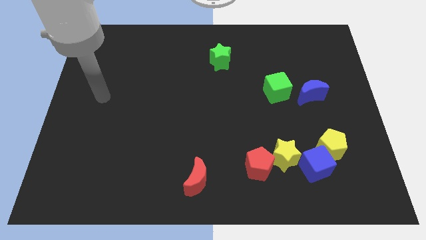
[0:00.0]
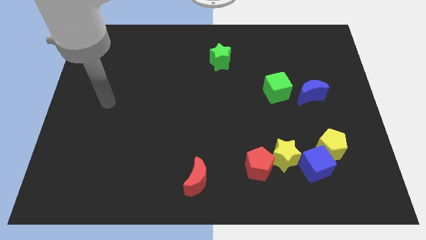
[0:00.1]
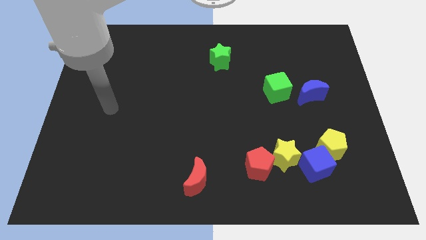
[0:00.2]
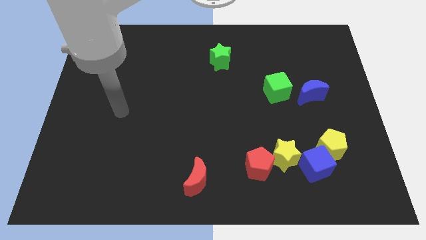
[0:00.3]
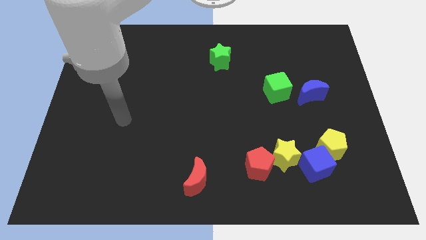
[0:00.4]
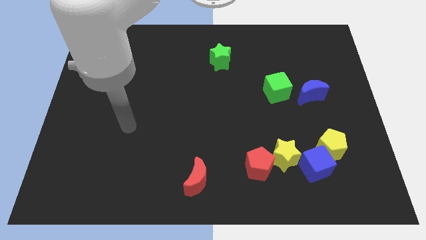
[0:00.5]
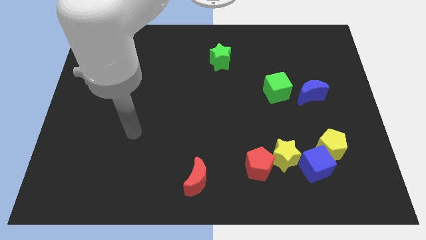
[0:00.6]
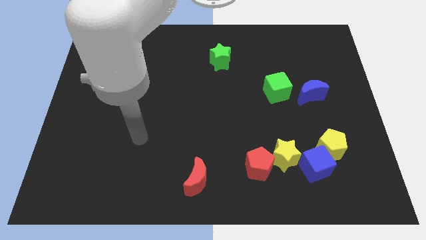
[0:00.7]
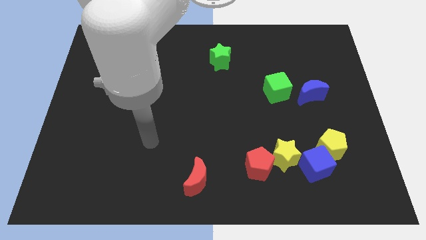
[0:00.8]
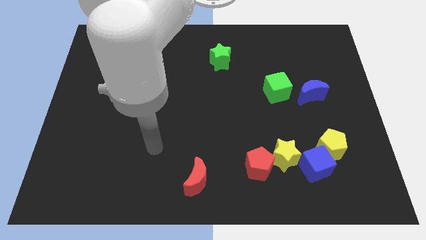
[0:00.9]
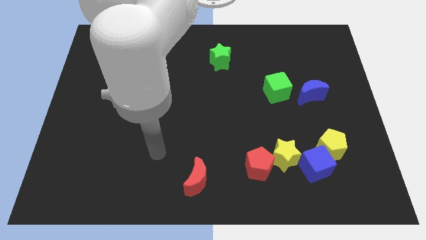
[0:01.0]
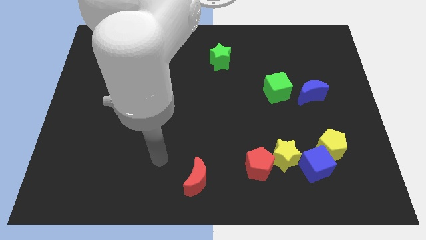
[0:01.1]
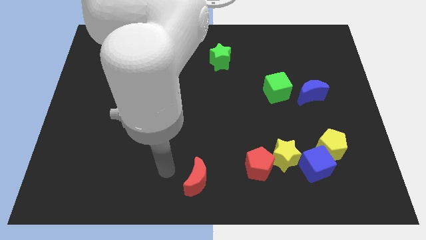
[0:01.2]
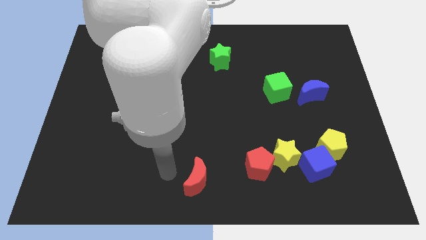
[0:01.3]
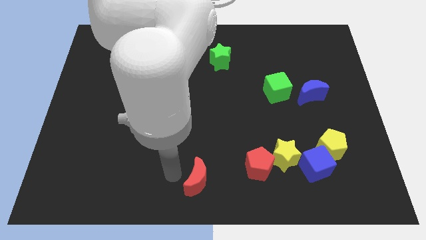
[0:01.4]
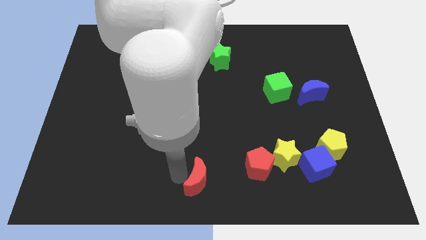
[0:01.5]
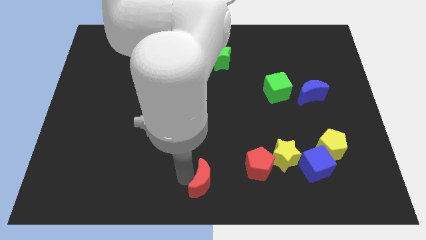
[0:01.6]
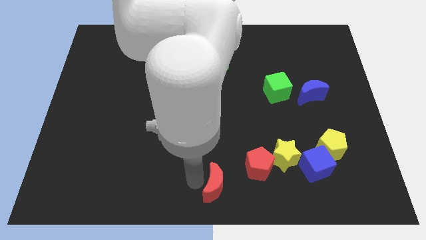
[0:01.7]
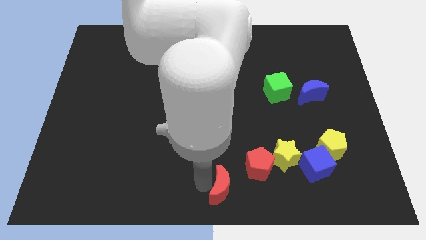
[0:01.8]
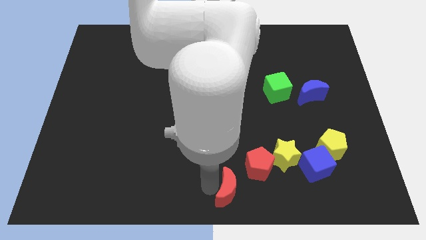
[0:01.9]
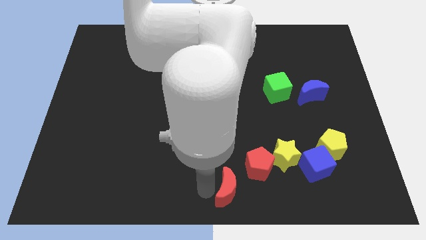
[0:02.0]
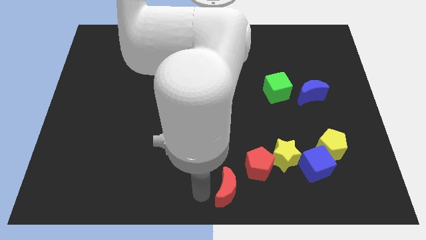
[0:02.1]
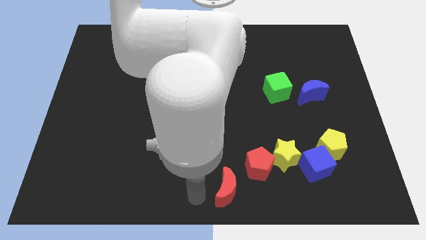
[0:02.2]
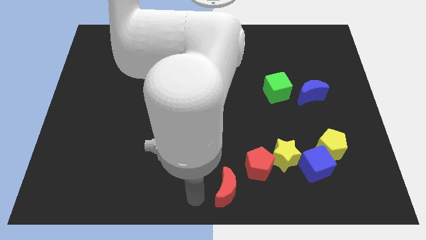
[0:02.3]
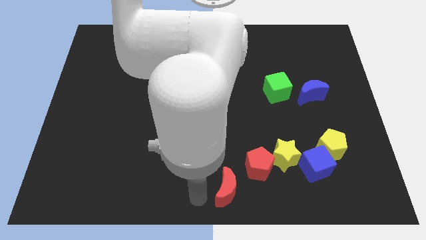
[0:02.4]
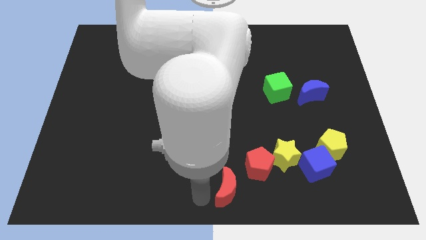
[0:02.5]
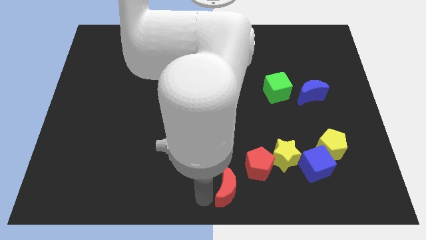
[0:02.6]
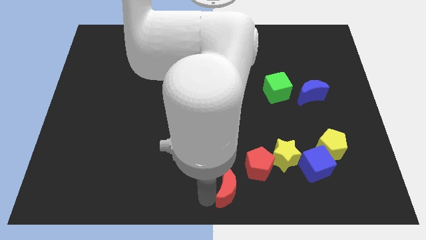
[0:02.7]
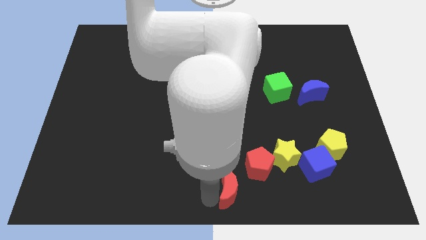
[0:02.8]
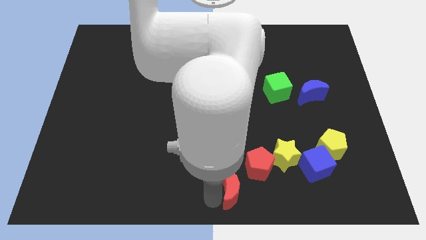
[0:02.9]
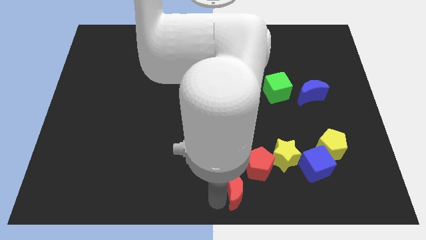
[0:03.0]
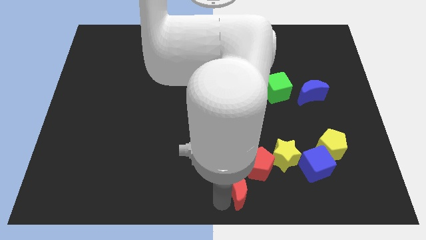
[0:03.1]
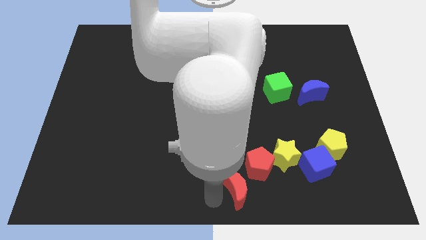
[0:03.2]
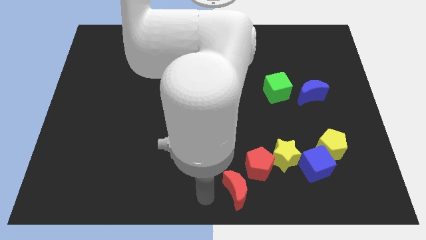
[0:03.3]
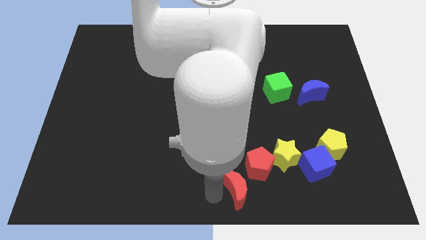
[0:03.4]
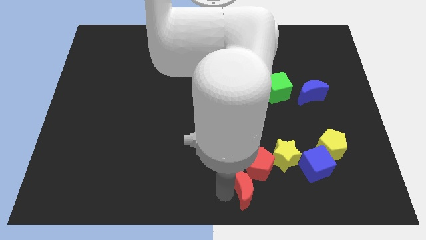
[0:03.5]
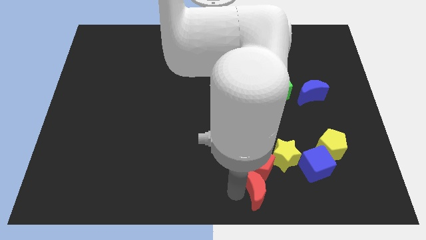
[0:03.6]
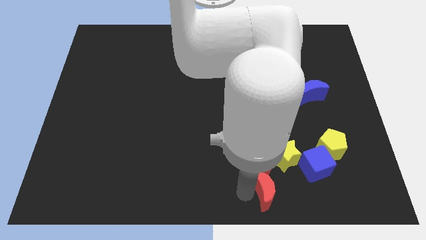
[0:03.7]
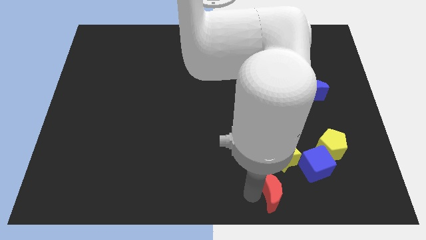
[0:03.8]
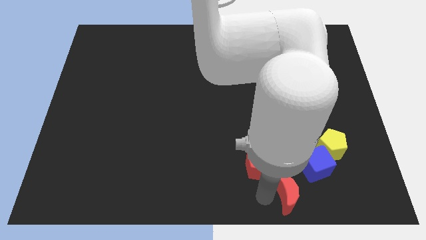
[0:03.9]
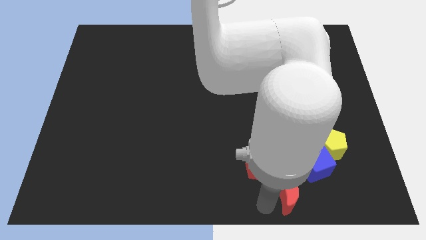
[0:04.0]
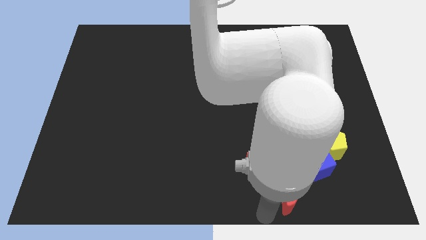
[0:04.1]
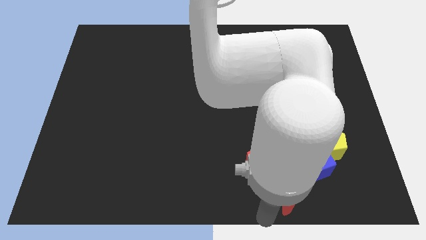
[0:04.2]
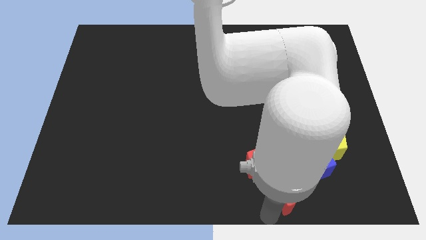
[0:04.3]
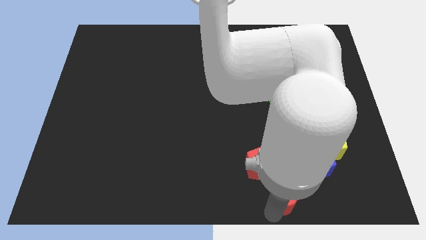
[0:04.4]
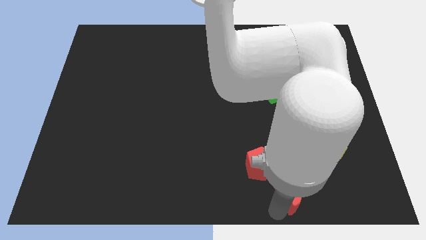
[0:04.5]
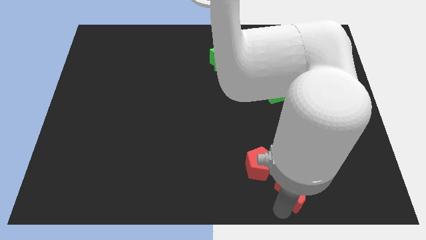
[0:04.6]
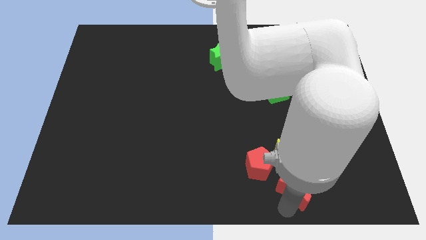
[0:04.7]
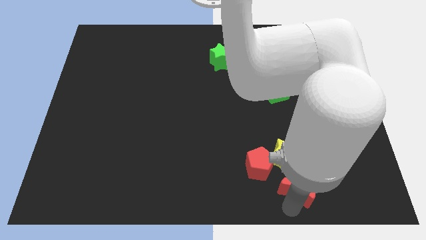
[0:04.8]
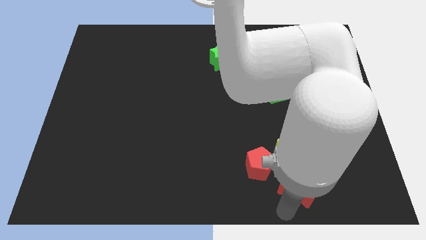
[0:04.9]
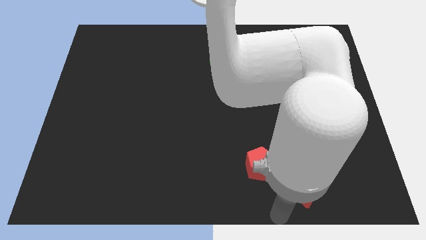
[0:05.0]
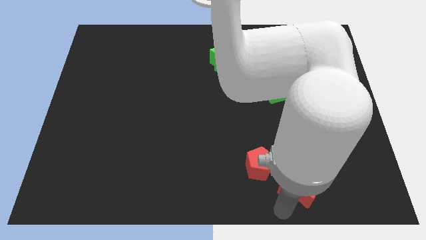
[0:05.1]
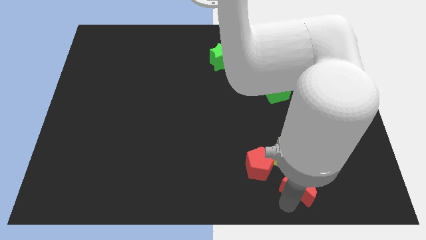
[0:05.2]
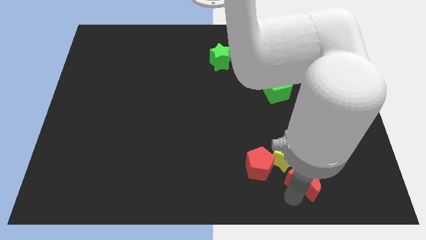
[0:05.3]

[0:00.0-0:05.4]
push the red moon close to the blue cube
